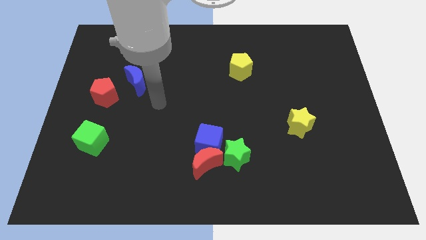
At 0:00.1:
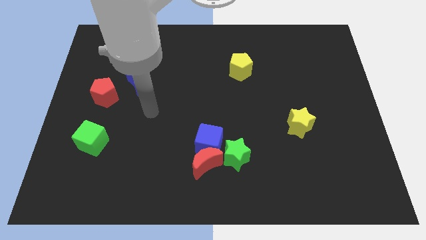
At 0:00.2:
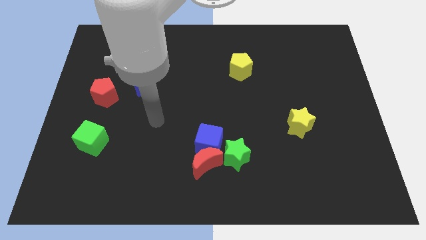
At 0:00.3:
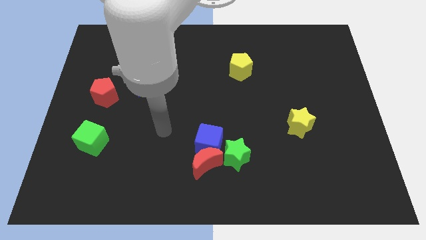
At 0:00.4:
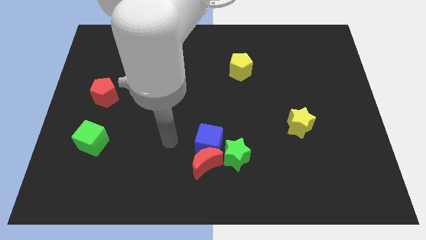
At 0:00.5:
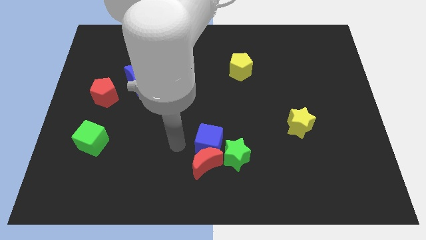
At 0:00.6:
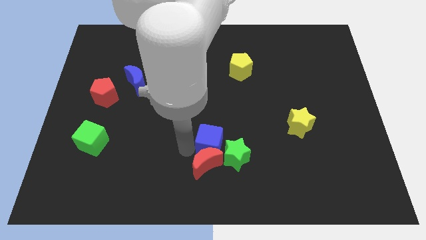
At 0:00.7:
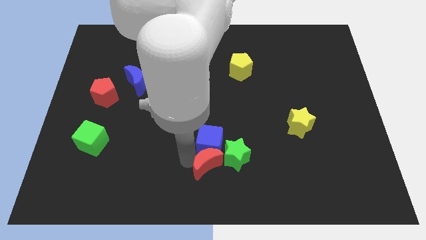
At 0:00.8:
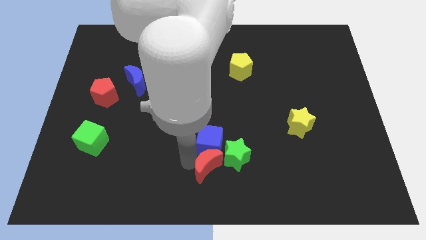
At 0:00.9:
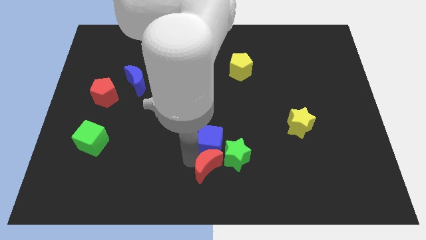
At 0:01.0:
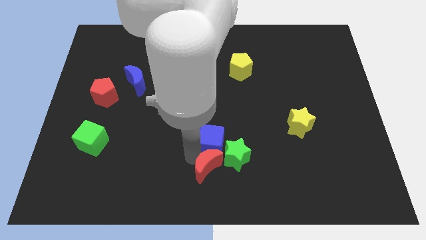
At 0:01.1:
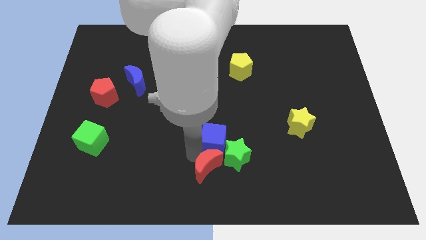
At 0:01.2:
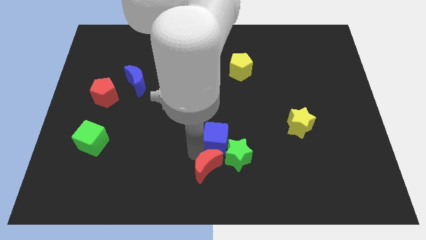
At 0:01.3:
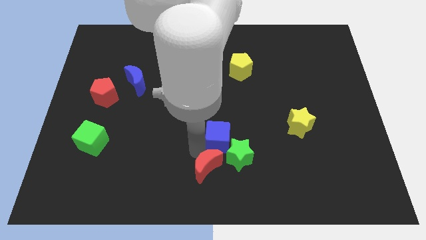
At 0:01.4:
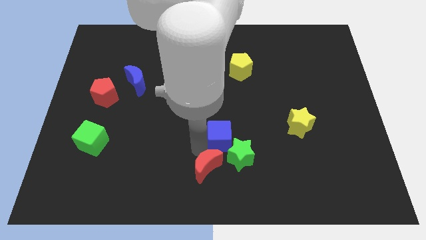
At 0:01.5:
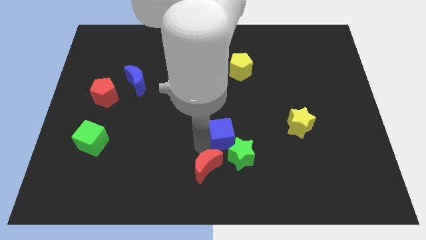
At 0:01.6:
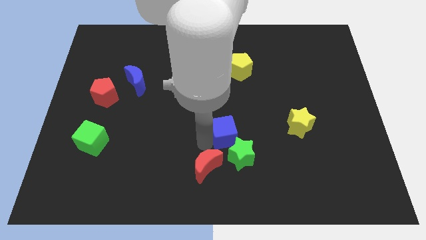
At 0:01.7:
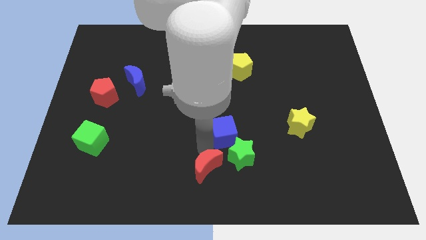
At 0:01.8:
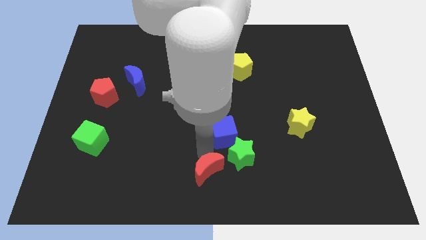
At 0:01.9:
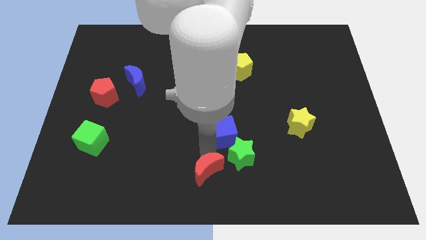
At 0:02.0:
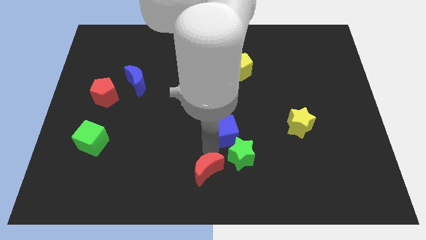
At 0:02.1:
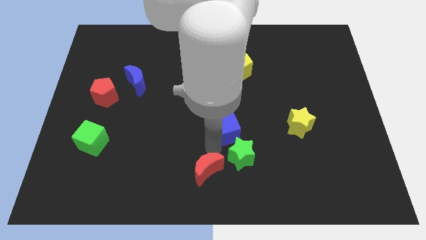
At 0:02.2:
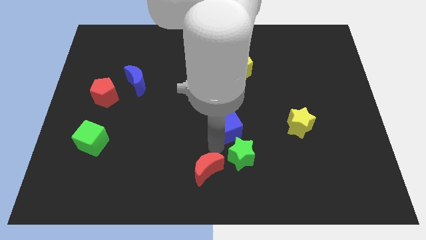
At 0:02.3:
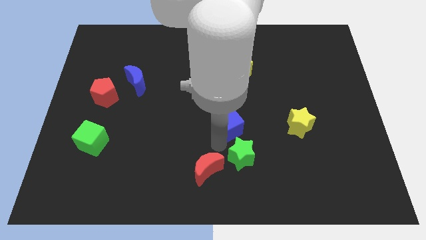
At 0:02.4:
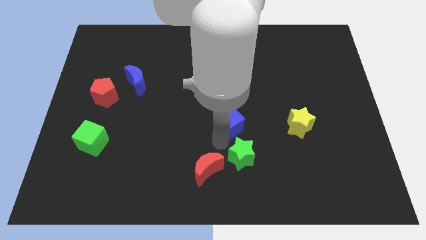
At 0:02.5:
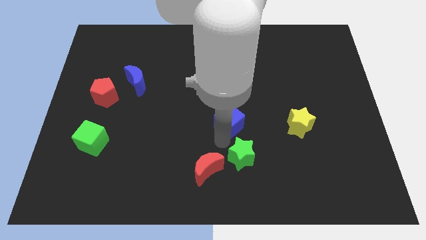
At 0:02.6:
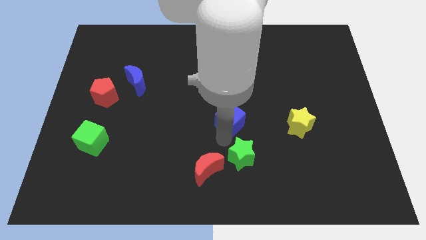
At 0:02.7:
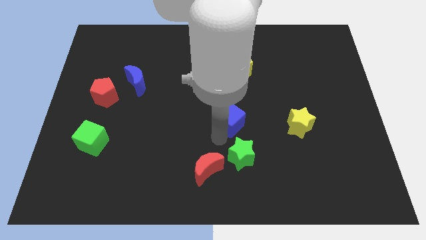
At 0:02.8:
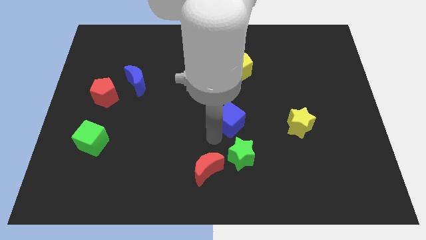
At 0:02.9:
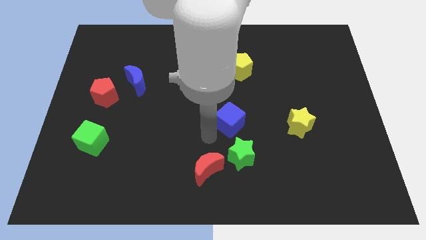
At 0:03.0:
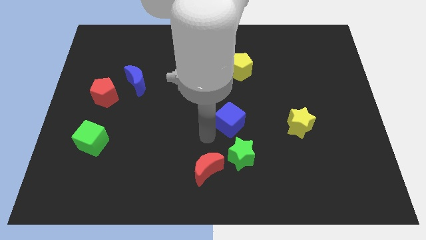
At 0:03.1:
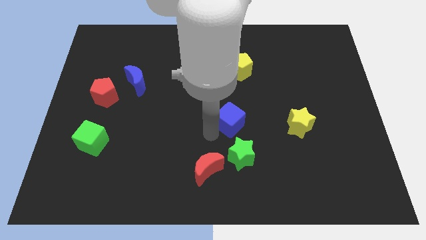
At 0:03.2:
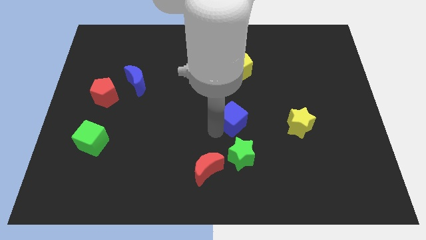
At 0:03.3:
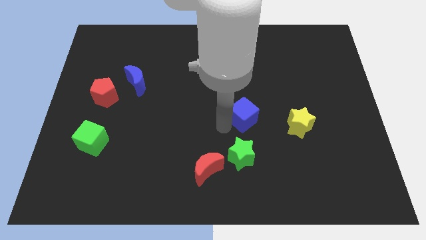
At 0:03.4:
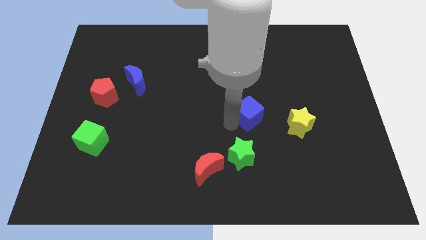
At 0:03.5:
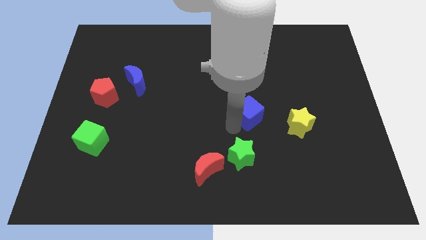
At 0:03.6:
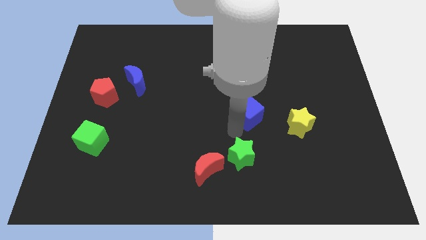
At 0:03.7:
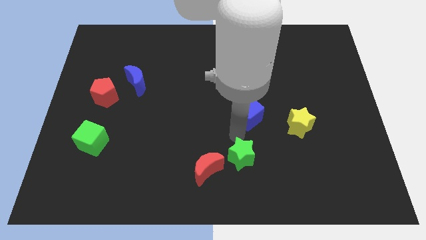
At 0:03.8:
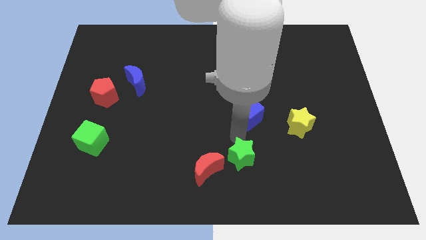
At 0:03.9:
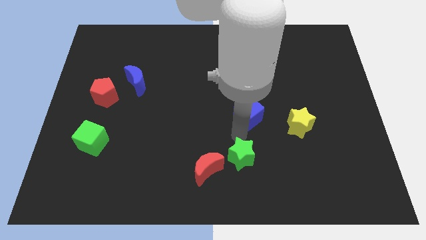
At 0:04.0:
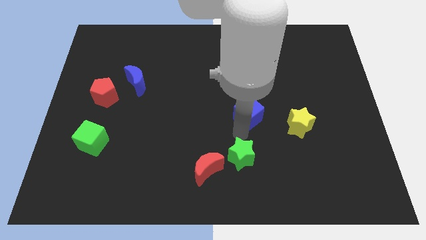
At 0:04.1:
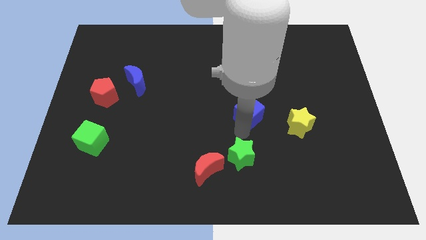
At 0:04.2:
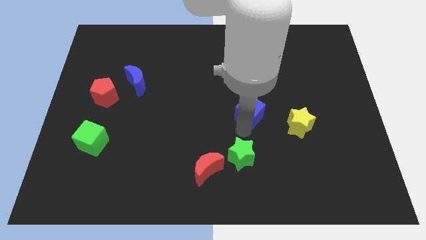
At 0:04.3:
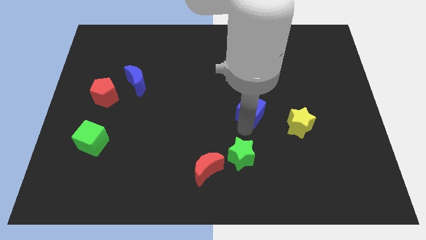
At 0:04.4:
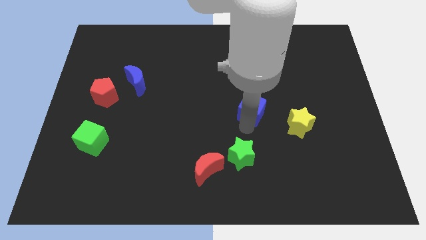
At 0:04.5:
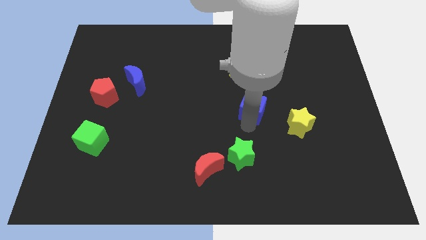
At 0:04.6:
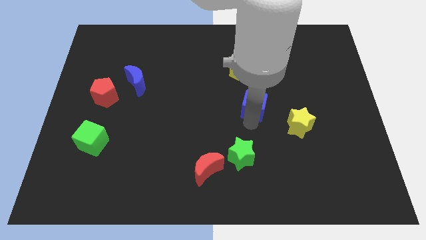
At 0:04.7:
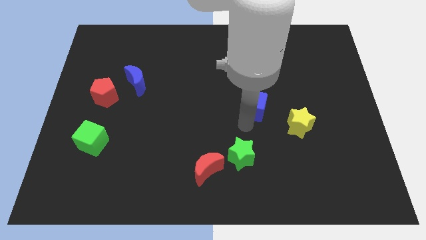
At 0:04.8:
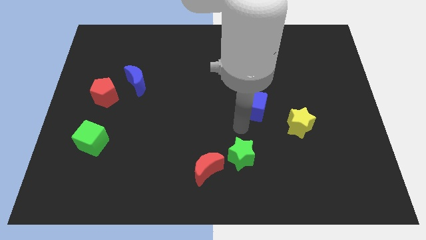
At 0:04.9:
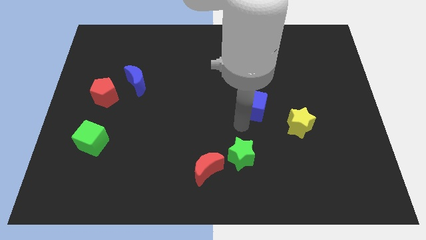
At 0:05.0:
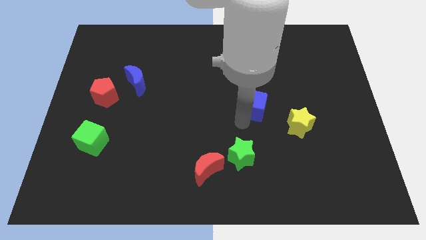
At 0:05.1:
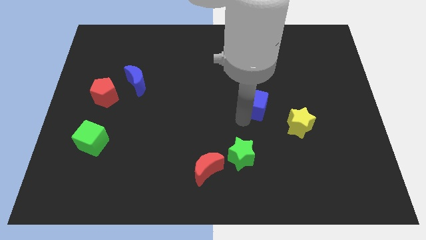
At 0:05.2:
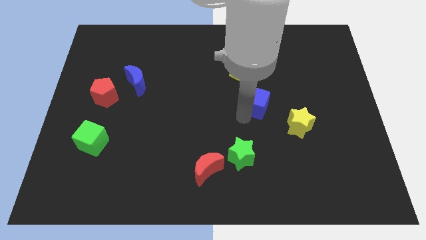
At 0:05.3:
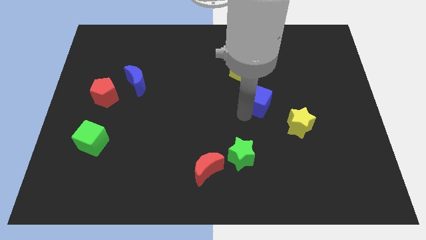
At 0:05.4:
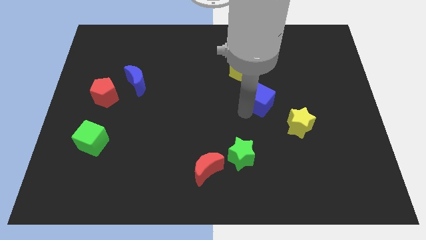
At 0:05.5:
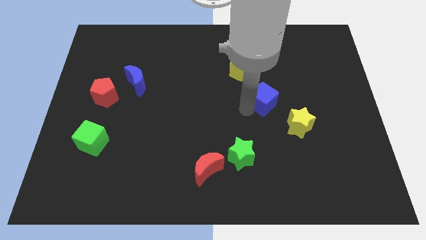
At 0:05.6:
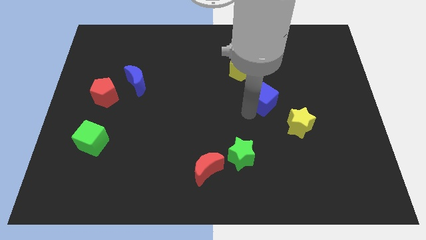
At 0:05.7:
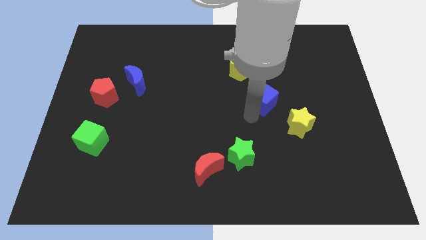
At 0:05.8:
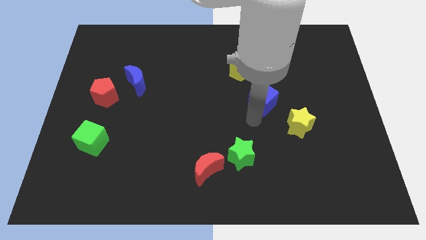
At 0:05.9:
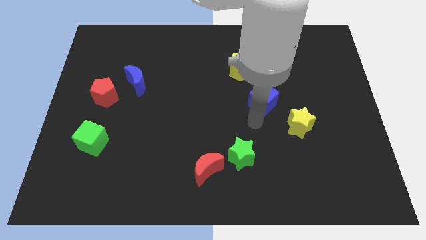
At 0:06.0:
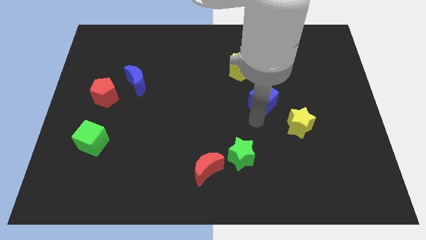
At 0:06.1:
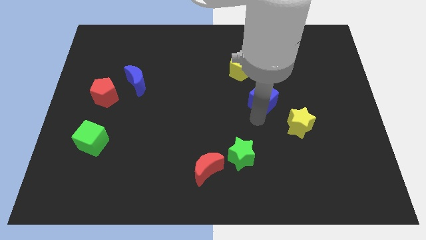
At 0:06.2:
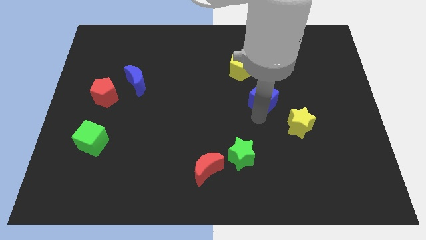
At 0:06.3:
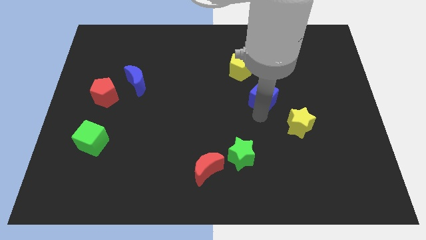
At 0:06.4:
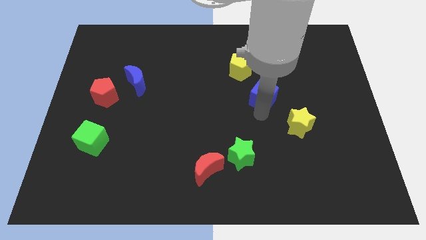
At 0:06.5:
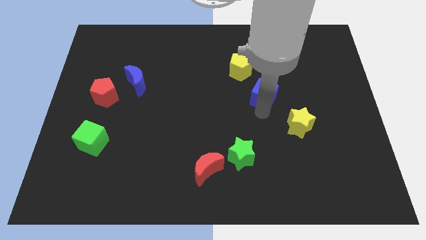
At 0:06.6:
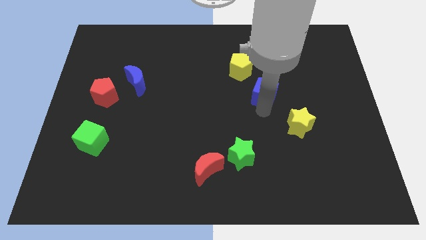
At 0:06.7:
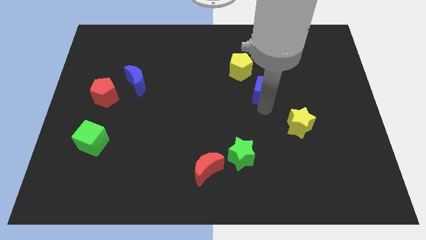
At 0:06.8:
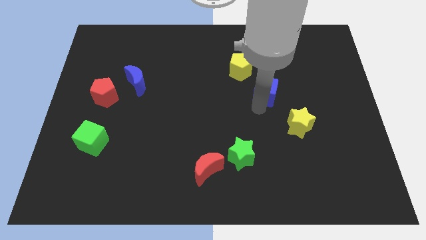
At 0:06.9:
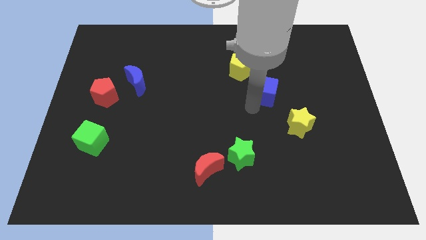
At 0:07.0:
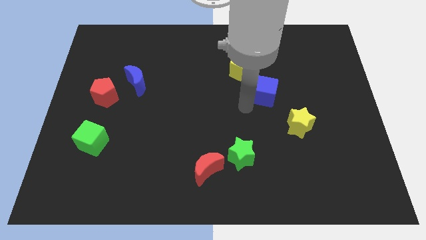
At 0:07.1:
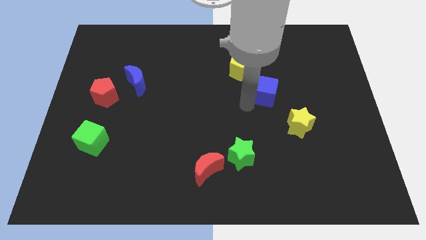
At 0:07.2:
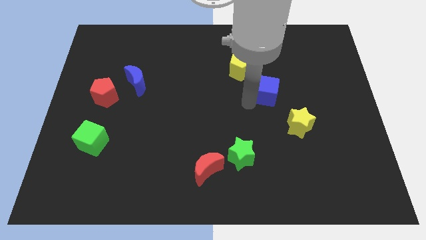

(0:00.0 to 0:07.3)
push the blue cube upwards and to the right

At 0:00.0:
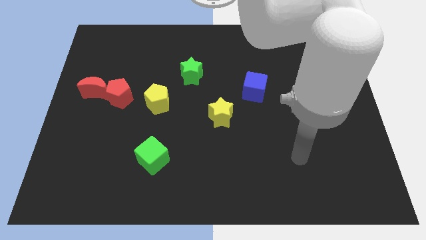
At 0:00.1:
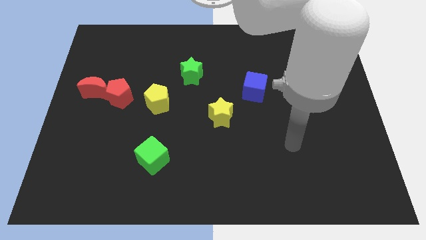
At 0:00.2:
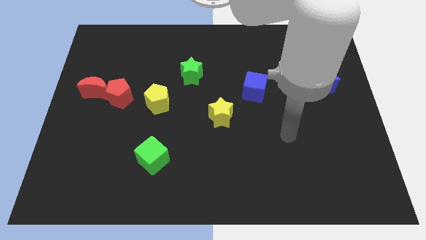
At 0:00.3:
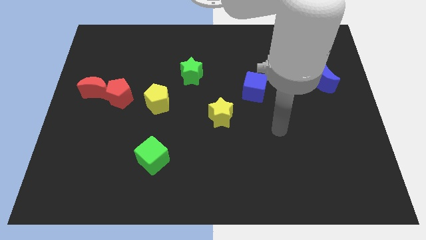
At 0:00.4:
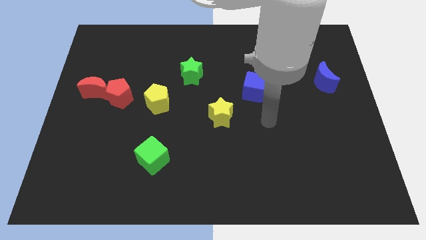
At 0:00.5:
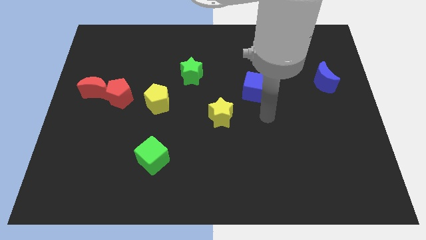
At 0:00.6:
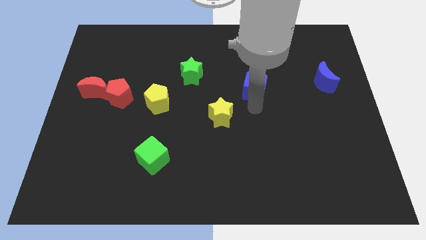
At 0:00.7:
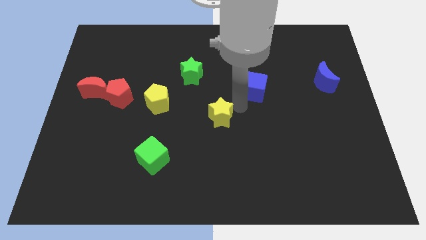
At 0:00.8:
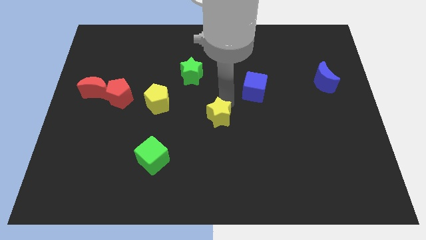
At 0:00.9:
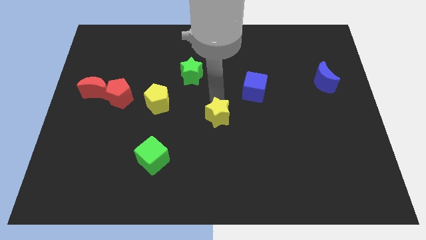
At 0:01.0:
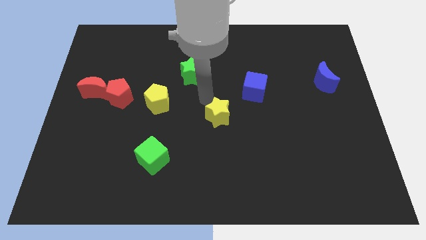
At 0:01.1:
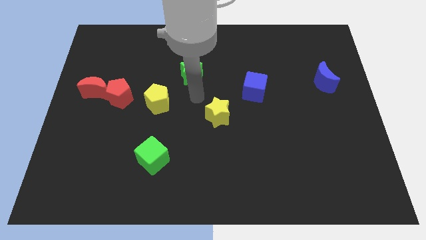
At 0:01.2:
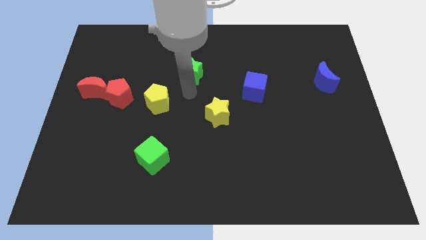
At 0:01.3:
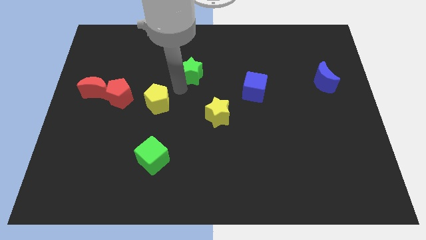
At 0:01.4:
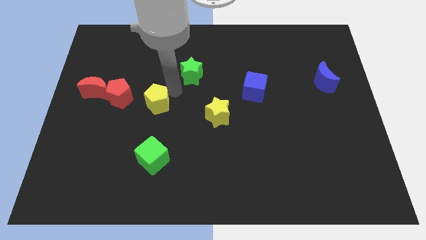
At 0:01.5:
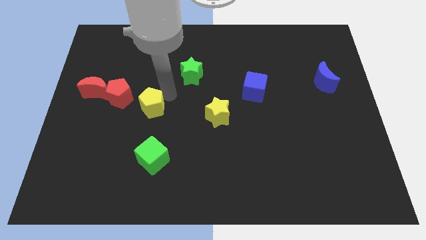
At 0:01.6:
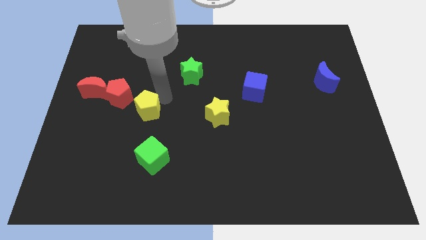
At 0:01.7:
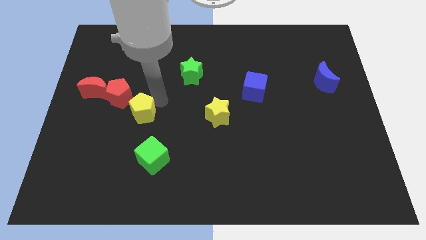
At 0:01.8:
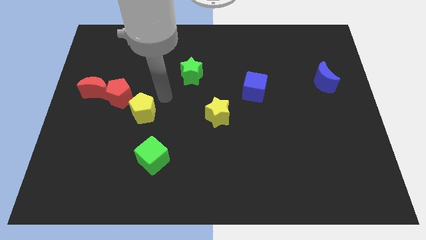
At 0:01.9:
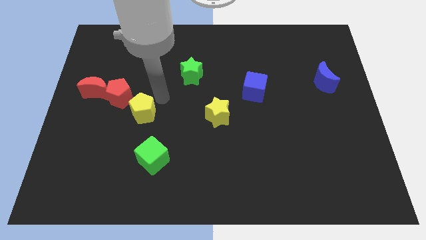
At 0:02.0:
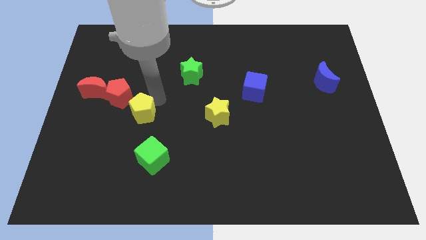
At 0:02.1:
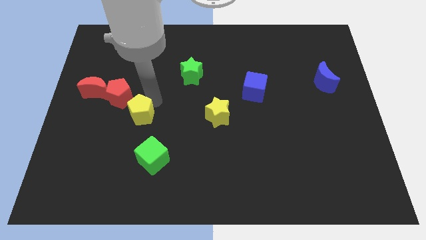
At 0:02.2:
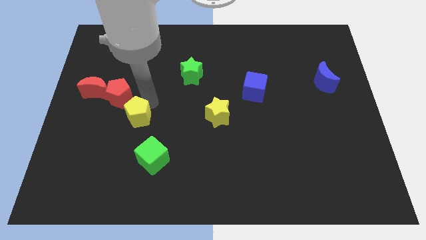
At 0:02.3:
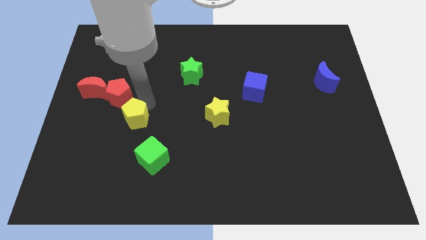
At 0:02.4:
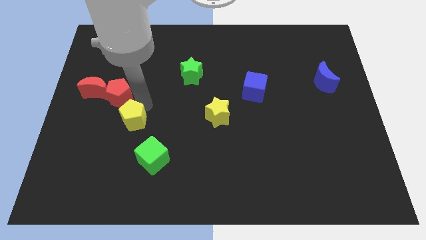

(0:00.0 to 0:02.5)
slightly push the yellow pentagon down and left
